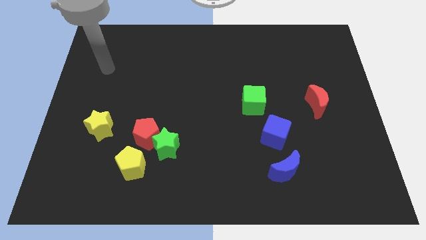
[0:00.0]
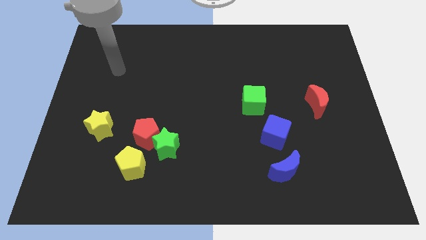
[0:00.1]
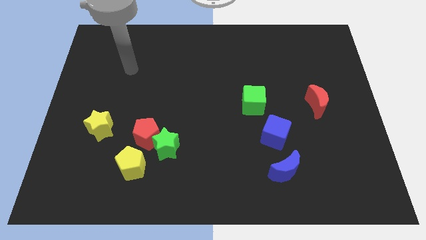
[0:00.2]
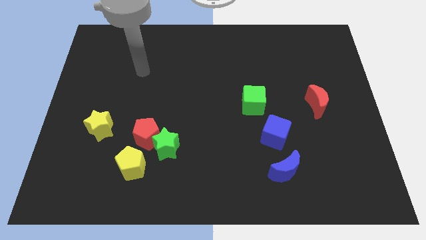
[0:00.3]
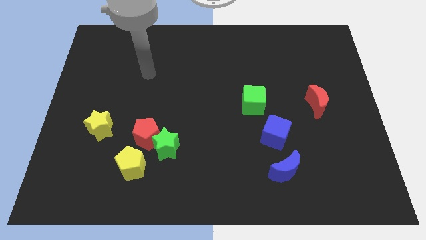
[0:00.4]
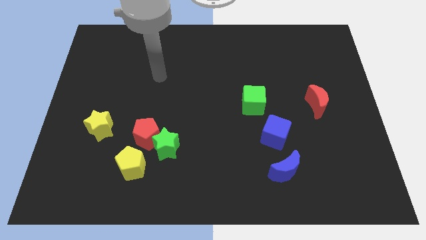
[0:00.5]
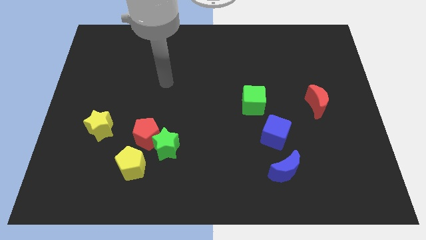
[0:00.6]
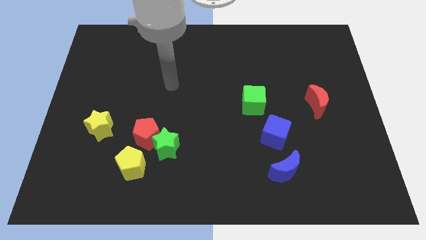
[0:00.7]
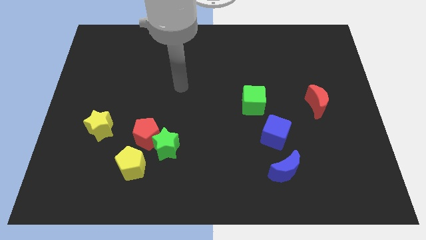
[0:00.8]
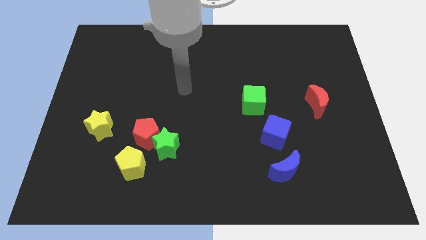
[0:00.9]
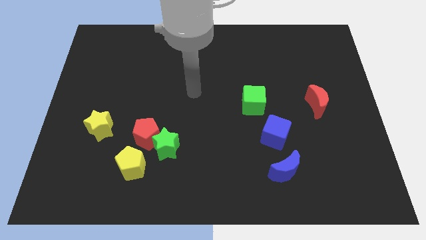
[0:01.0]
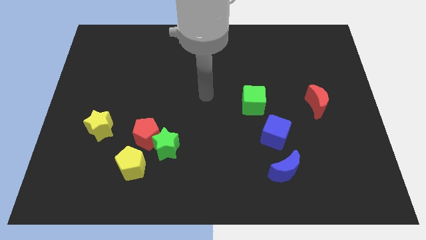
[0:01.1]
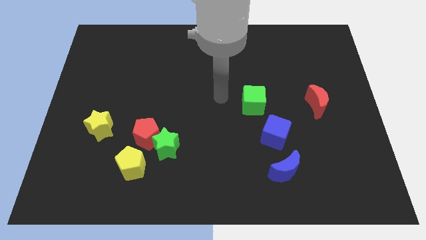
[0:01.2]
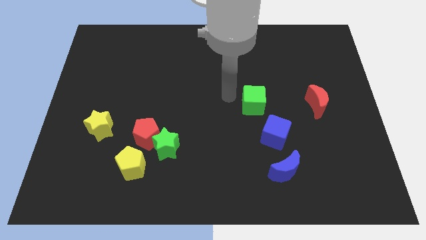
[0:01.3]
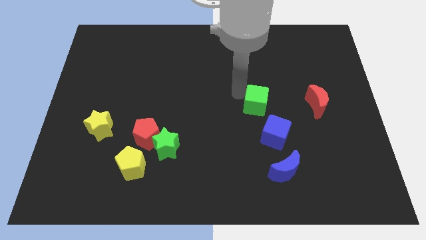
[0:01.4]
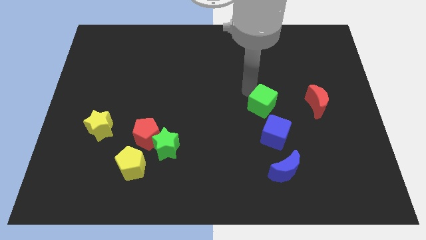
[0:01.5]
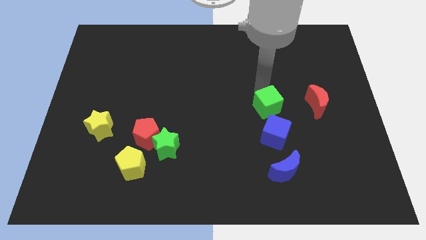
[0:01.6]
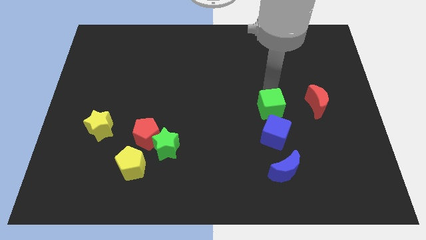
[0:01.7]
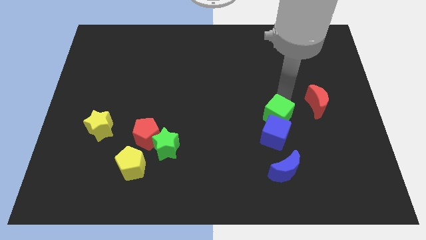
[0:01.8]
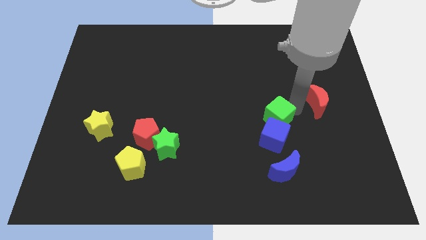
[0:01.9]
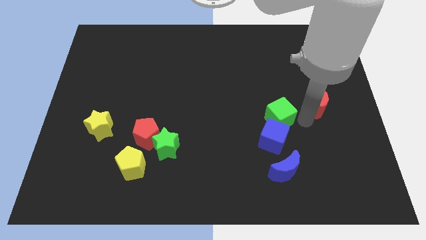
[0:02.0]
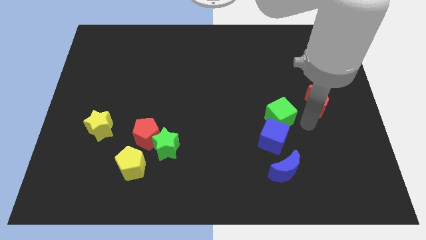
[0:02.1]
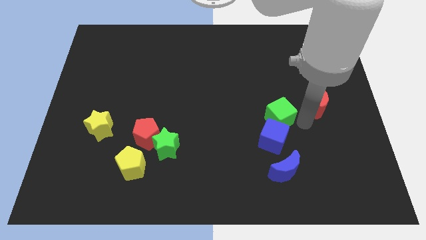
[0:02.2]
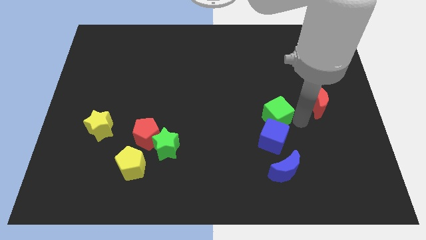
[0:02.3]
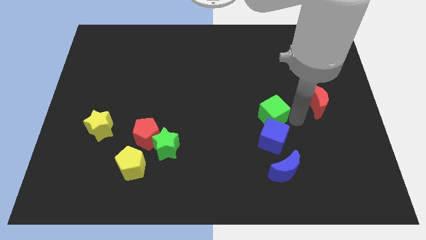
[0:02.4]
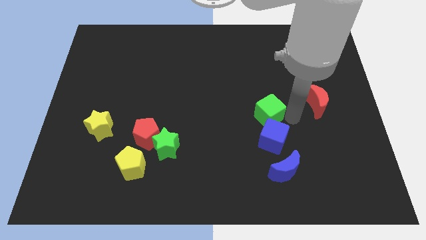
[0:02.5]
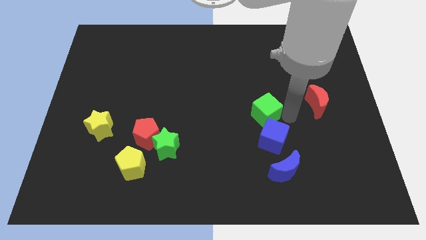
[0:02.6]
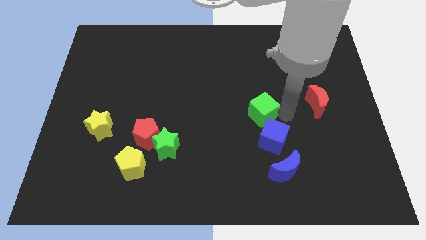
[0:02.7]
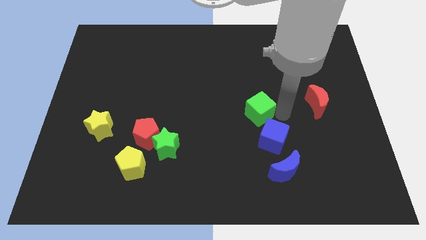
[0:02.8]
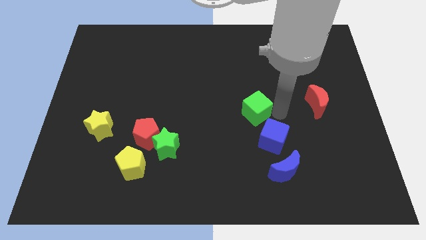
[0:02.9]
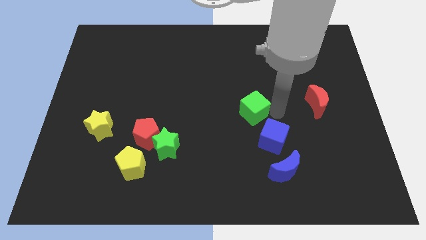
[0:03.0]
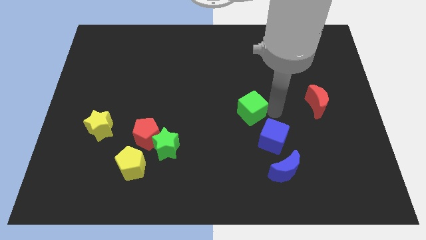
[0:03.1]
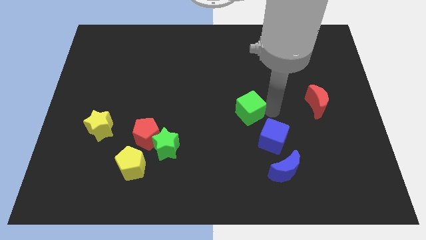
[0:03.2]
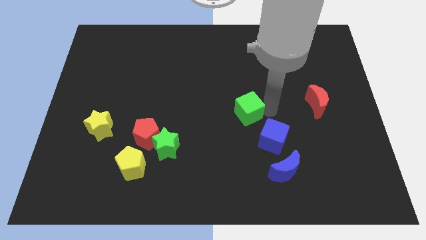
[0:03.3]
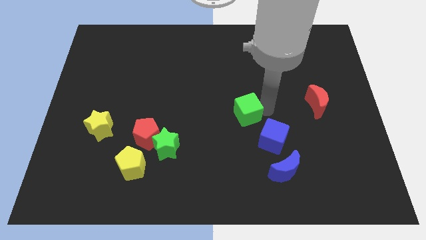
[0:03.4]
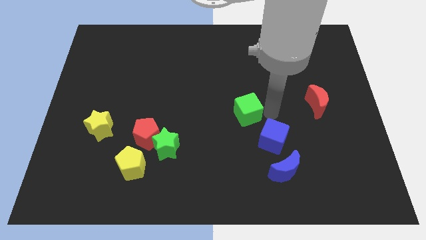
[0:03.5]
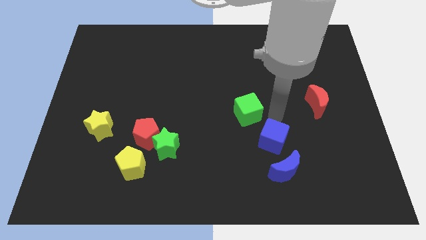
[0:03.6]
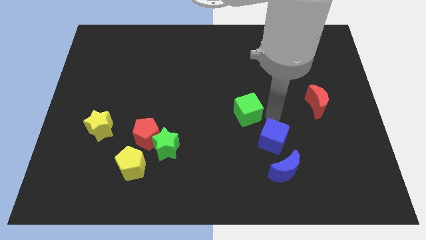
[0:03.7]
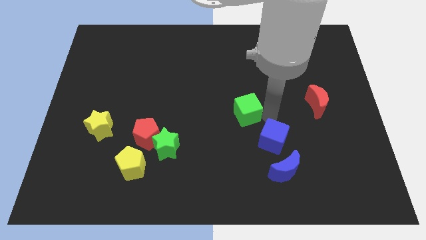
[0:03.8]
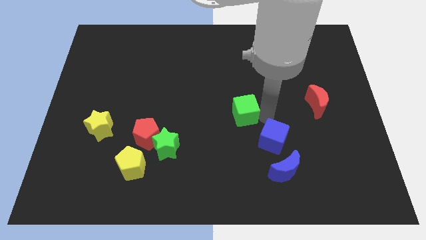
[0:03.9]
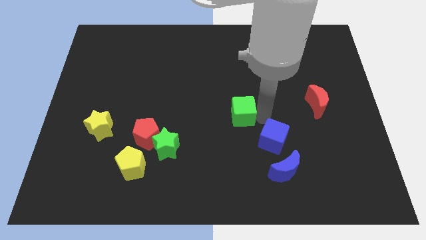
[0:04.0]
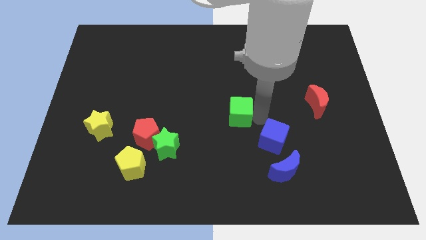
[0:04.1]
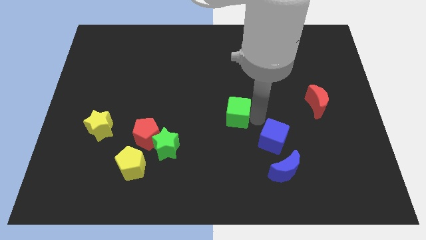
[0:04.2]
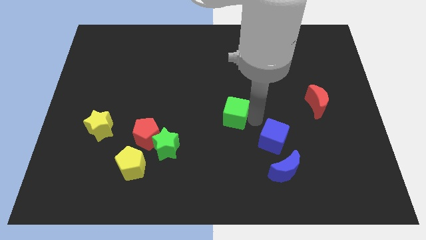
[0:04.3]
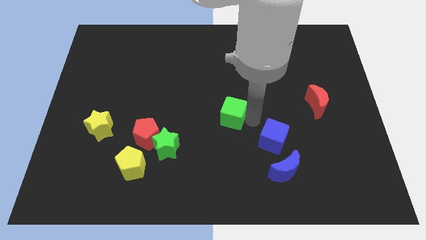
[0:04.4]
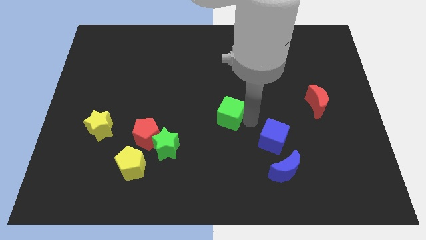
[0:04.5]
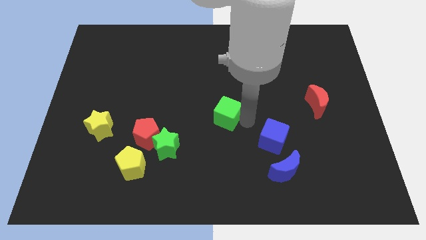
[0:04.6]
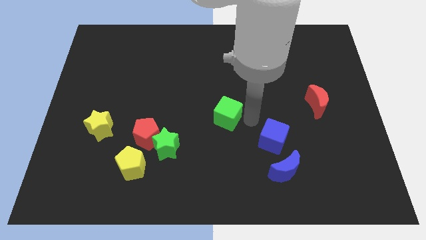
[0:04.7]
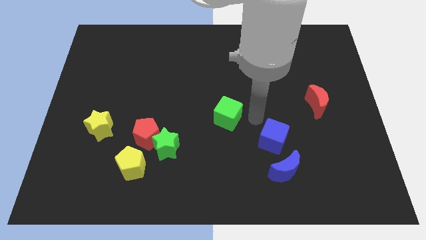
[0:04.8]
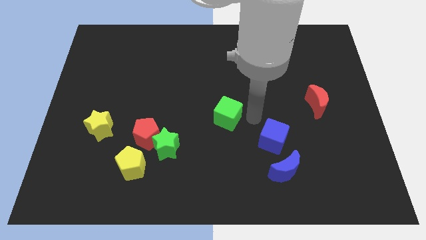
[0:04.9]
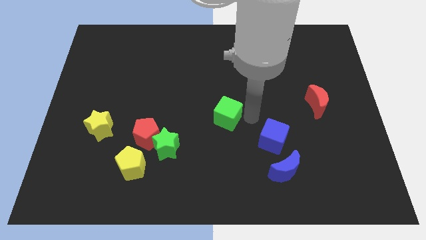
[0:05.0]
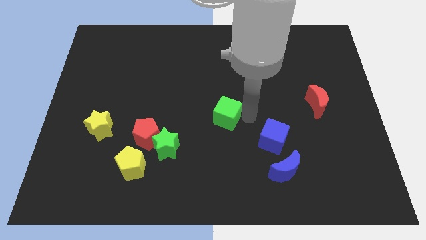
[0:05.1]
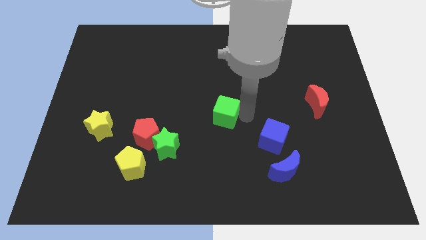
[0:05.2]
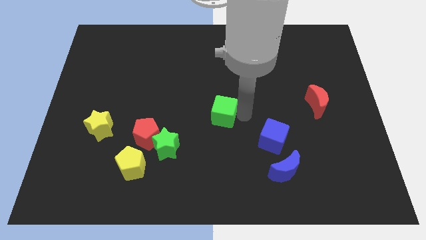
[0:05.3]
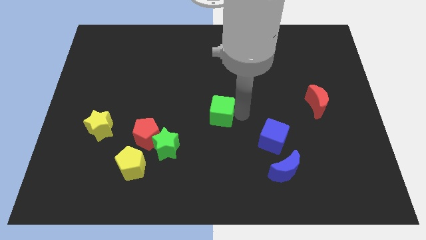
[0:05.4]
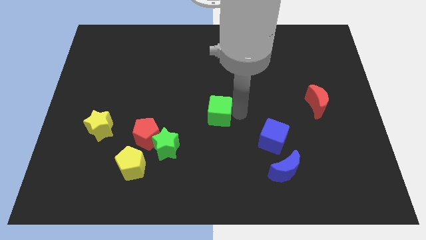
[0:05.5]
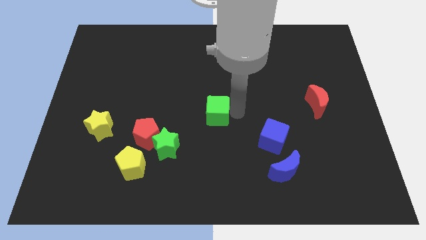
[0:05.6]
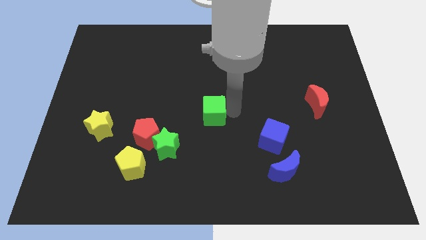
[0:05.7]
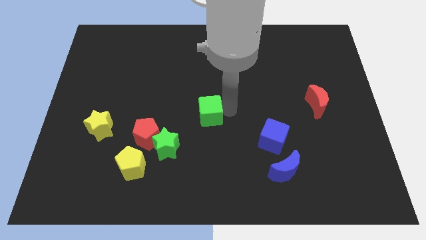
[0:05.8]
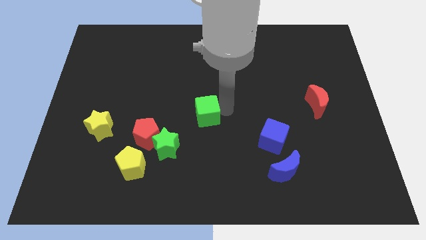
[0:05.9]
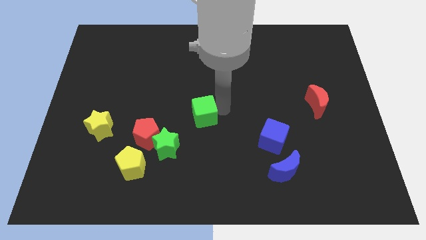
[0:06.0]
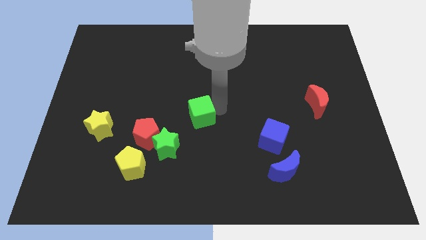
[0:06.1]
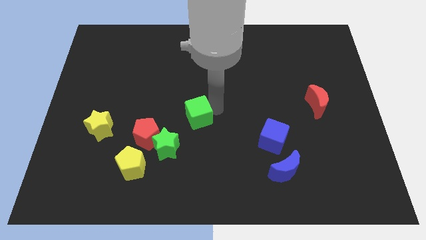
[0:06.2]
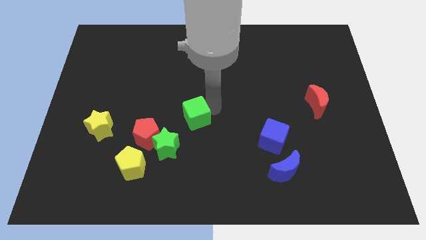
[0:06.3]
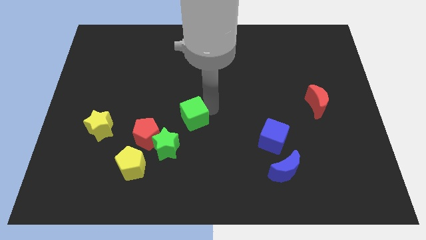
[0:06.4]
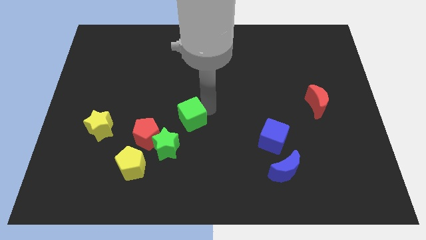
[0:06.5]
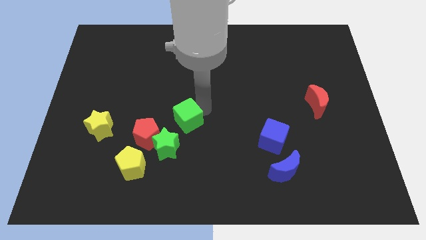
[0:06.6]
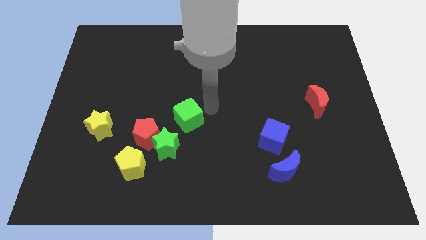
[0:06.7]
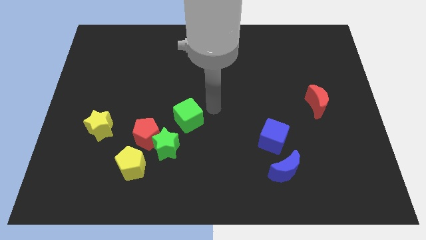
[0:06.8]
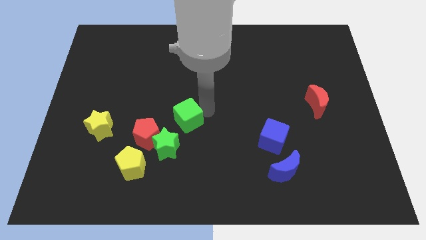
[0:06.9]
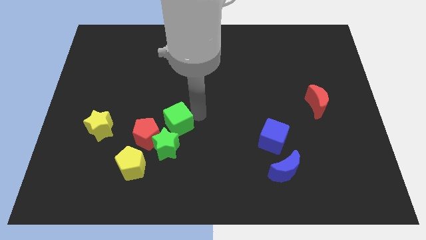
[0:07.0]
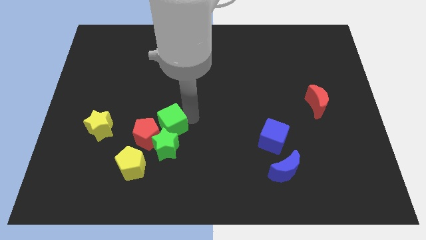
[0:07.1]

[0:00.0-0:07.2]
slide the green cube close to the red pentagon

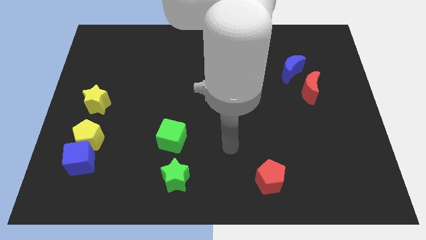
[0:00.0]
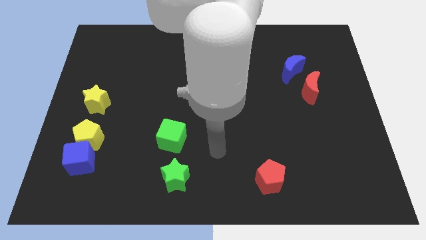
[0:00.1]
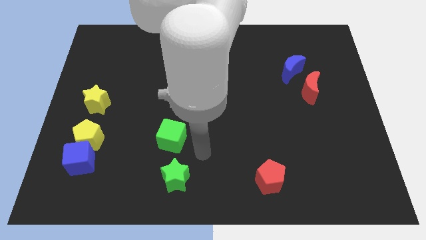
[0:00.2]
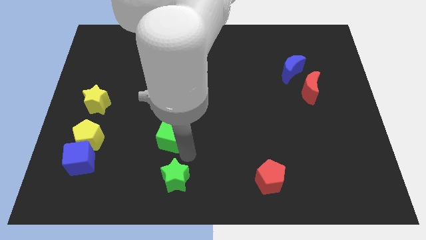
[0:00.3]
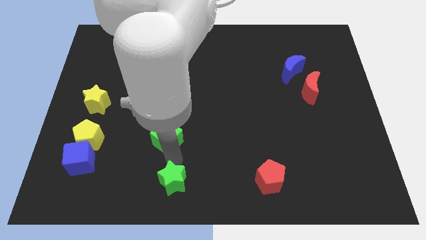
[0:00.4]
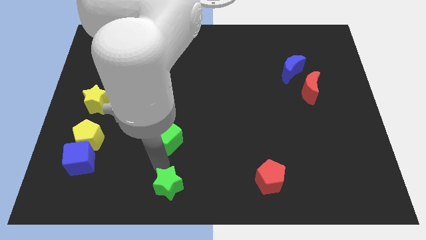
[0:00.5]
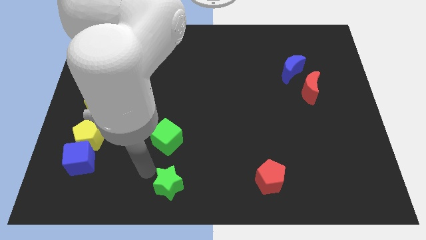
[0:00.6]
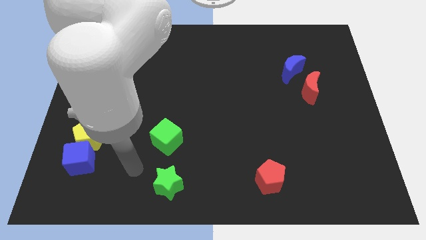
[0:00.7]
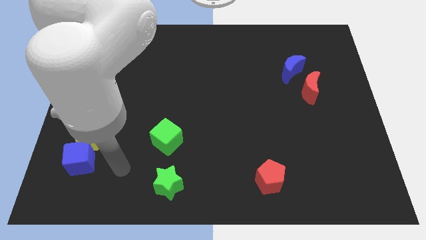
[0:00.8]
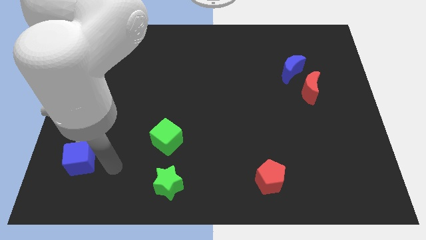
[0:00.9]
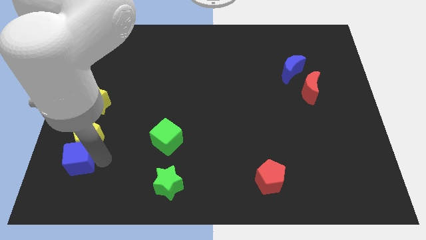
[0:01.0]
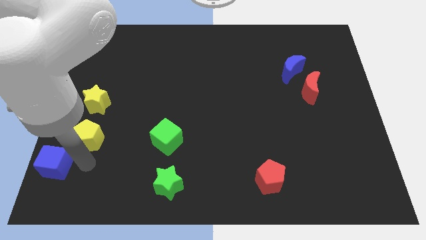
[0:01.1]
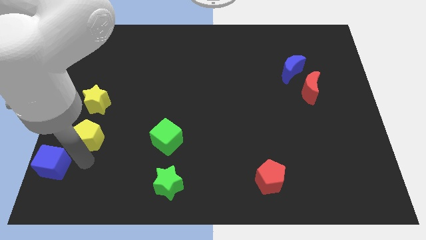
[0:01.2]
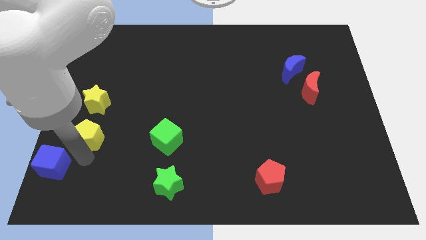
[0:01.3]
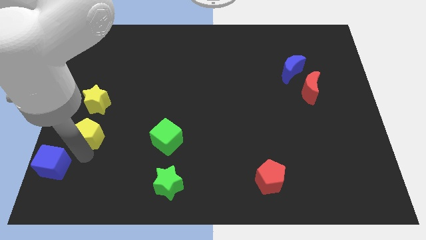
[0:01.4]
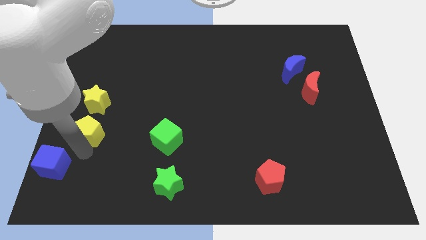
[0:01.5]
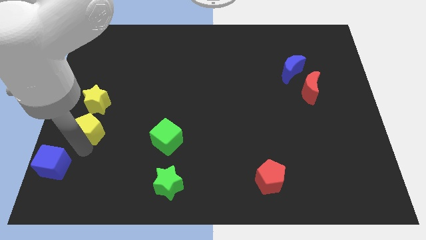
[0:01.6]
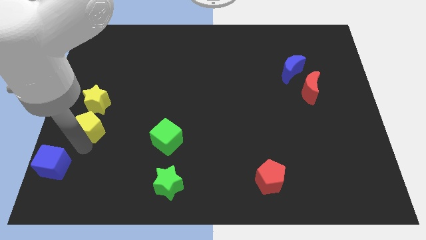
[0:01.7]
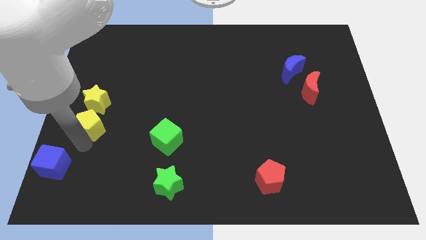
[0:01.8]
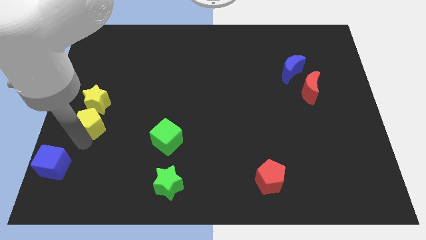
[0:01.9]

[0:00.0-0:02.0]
push the yellow pentagon next to the yellow star
